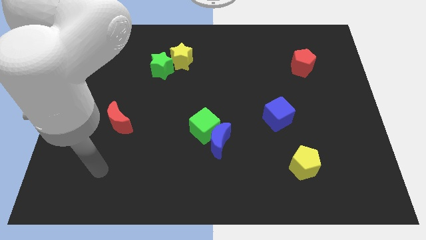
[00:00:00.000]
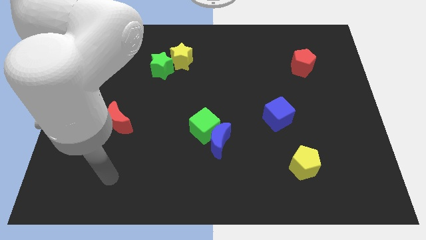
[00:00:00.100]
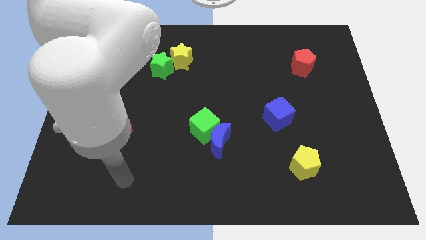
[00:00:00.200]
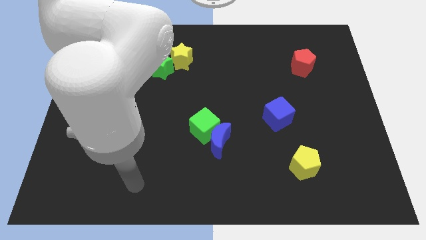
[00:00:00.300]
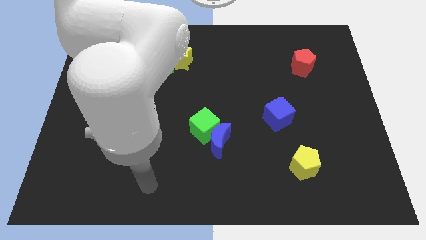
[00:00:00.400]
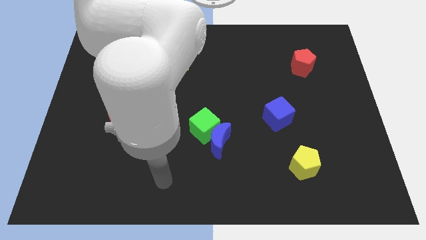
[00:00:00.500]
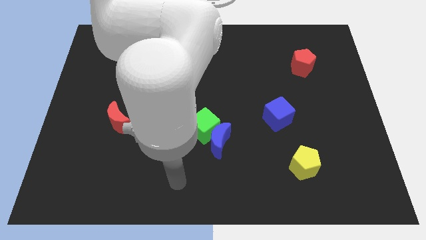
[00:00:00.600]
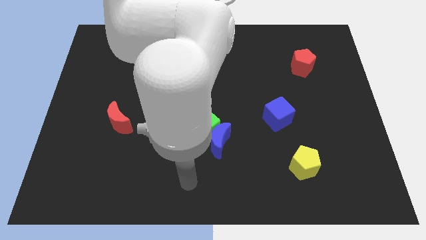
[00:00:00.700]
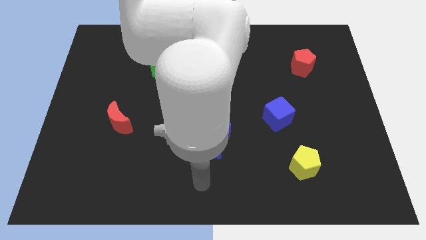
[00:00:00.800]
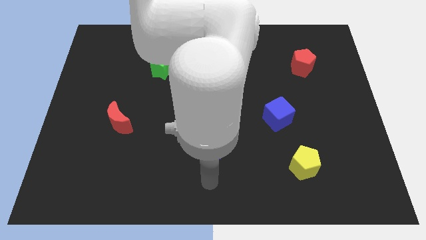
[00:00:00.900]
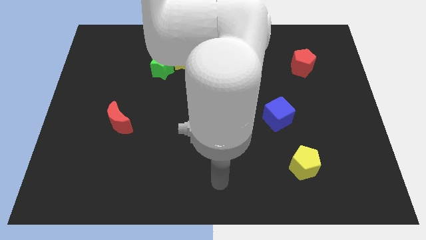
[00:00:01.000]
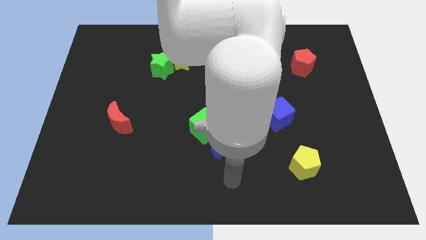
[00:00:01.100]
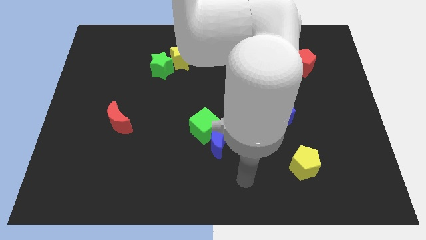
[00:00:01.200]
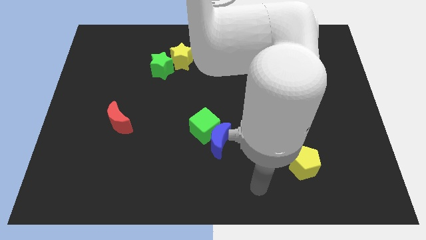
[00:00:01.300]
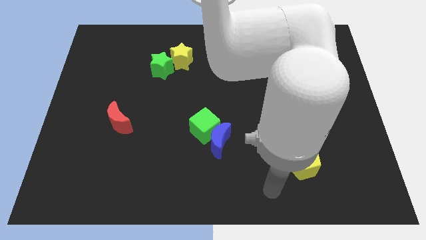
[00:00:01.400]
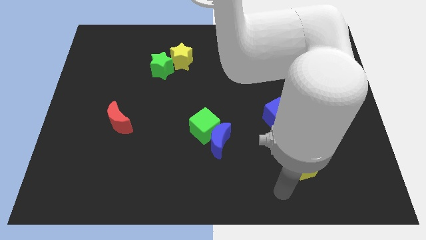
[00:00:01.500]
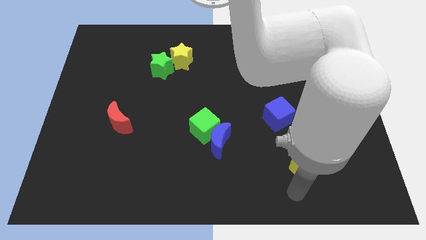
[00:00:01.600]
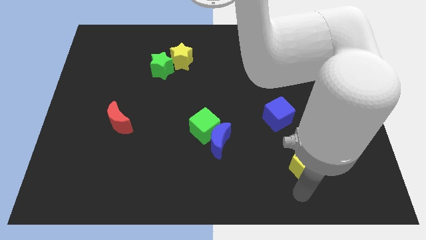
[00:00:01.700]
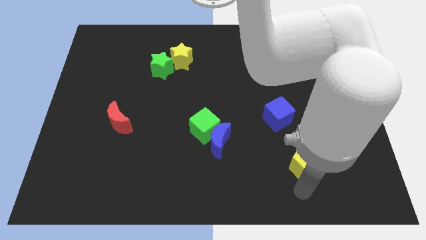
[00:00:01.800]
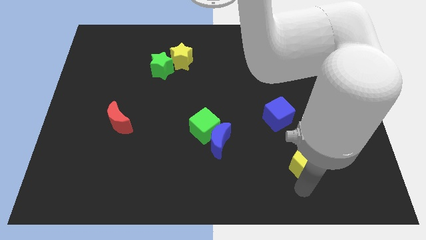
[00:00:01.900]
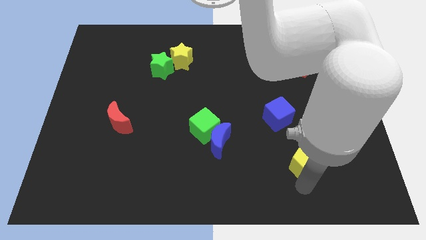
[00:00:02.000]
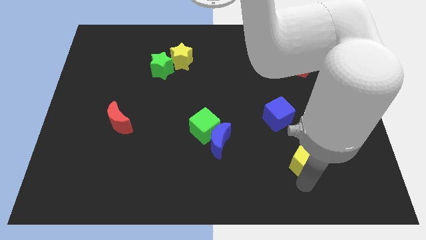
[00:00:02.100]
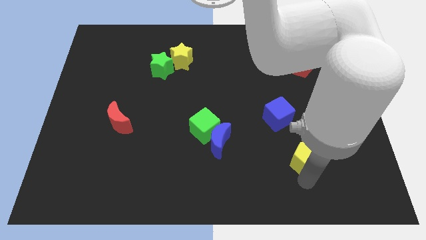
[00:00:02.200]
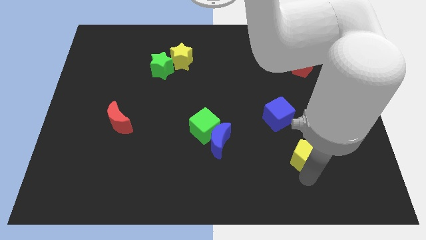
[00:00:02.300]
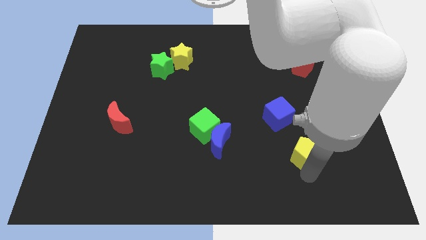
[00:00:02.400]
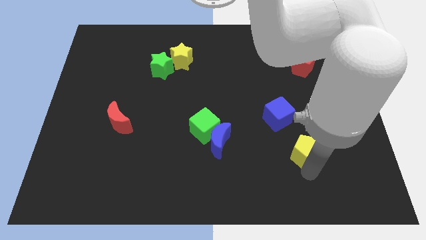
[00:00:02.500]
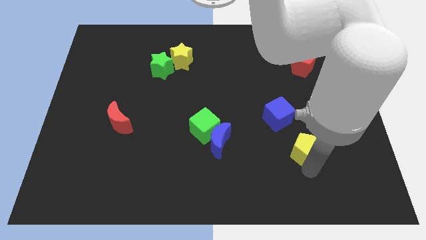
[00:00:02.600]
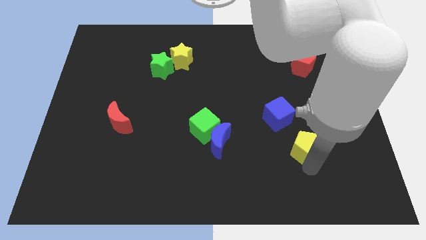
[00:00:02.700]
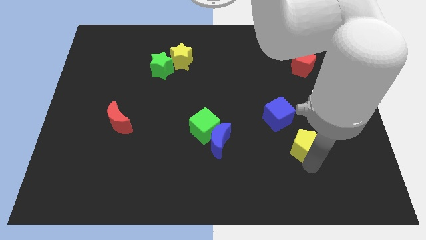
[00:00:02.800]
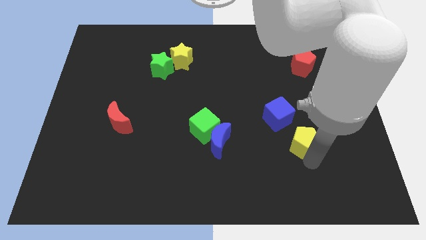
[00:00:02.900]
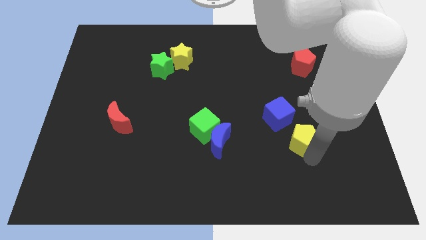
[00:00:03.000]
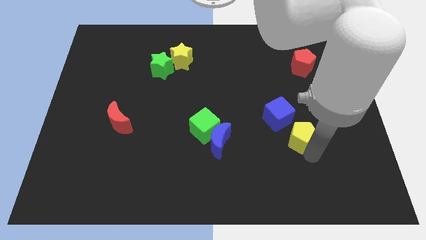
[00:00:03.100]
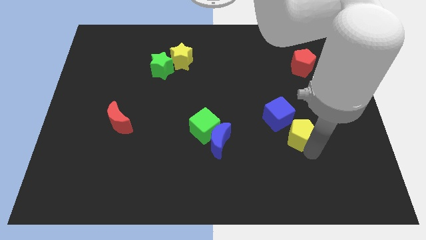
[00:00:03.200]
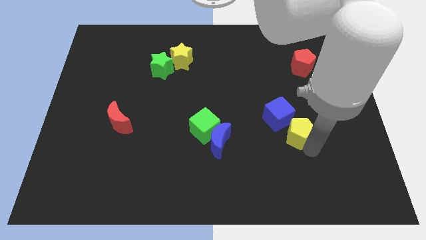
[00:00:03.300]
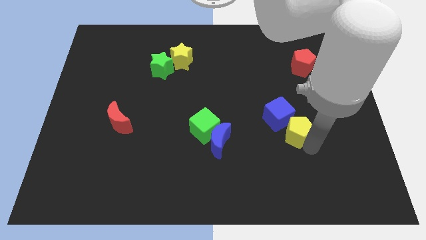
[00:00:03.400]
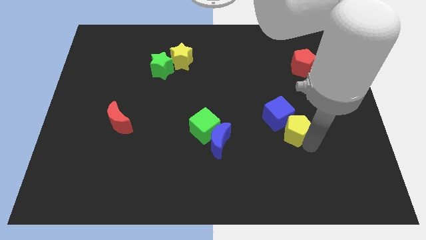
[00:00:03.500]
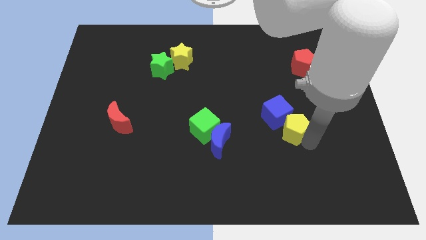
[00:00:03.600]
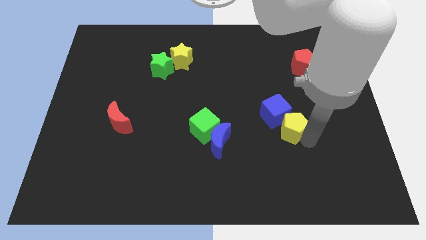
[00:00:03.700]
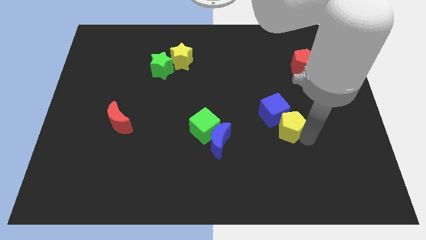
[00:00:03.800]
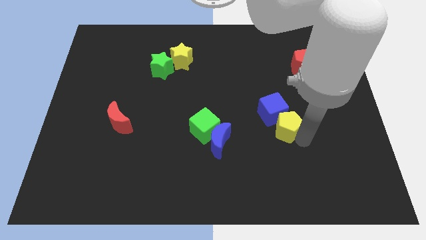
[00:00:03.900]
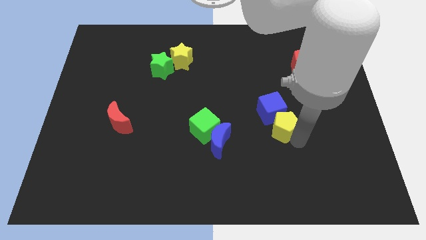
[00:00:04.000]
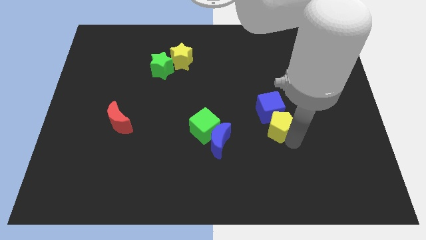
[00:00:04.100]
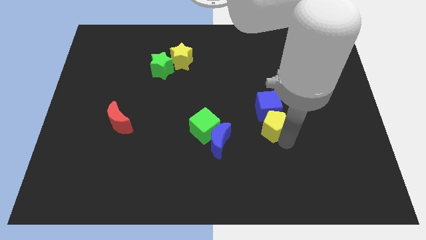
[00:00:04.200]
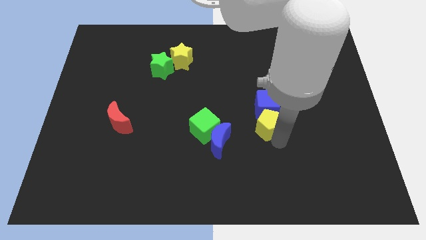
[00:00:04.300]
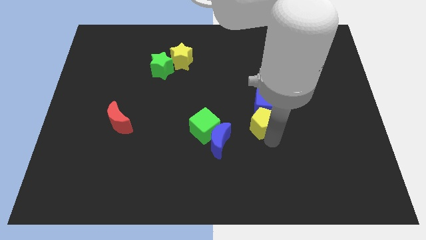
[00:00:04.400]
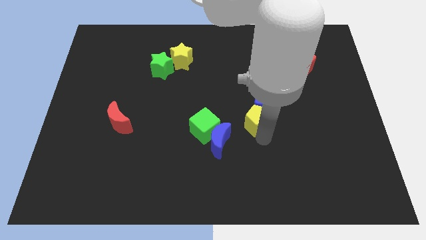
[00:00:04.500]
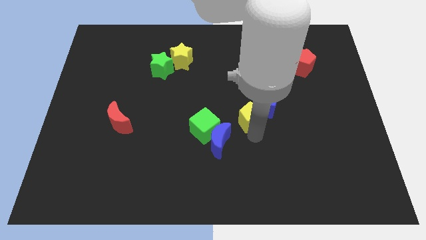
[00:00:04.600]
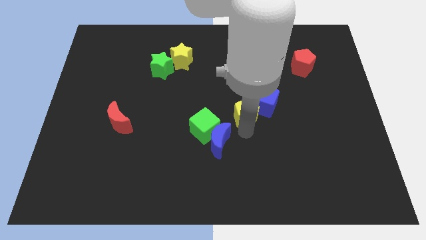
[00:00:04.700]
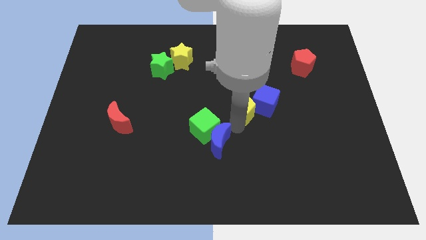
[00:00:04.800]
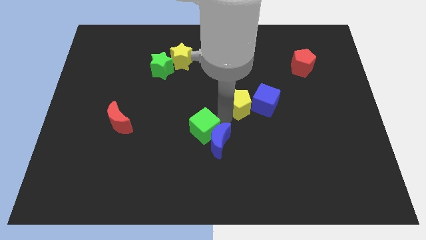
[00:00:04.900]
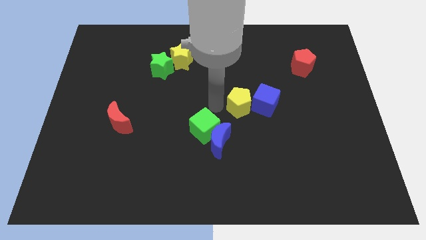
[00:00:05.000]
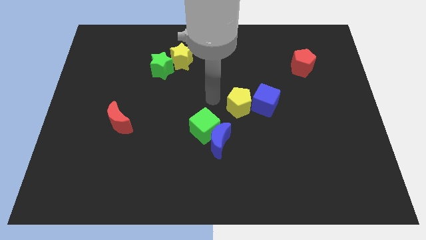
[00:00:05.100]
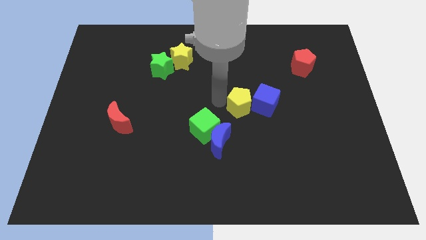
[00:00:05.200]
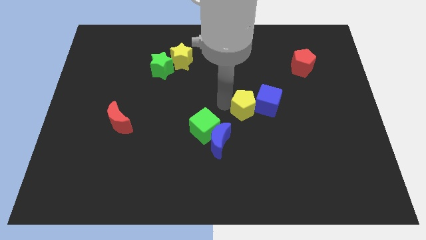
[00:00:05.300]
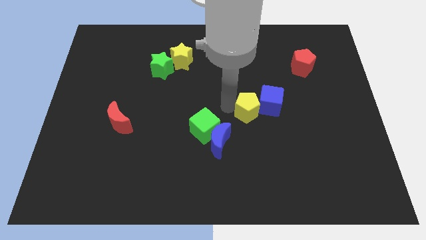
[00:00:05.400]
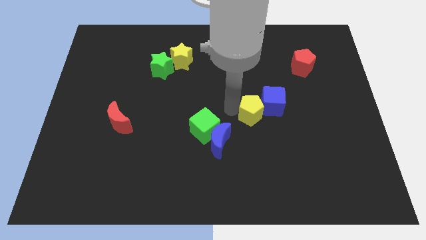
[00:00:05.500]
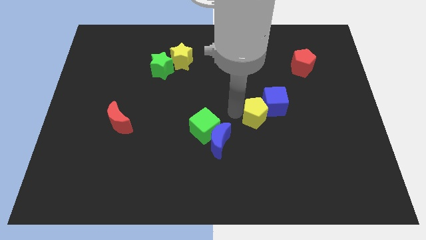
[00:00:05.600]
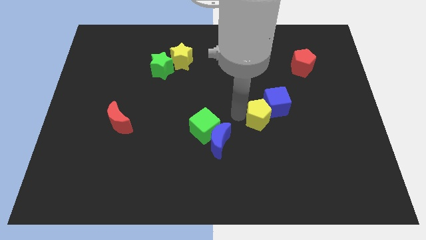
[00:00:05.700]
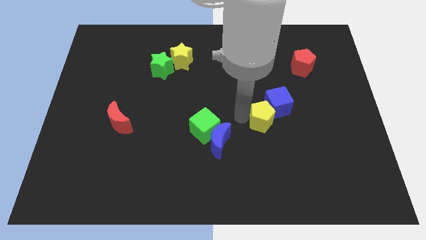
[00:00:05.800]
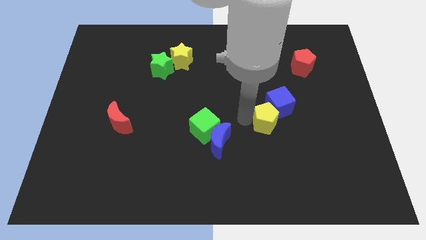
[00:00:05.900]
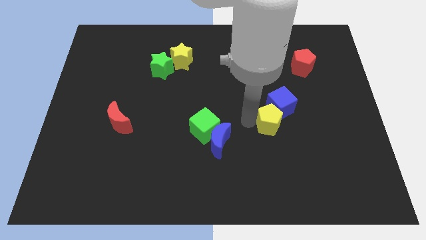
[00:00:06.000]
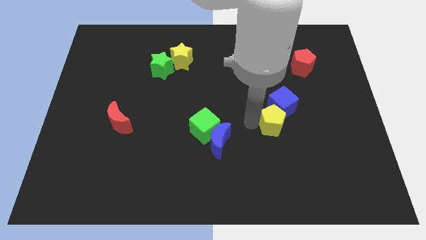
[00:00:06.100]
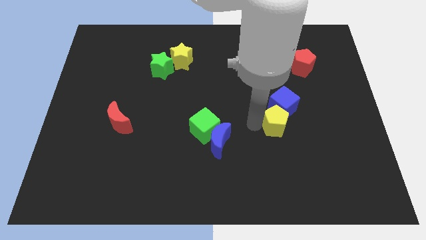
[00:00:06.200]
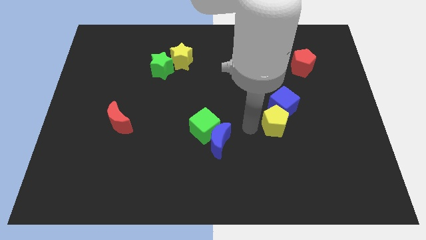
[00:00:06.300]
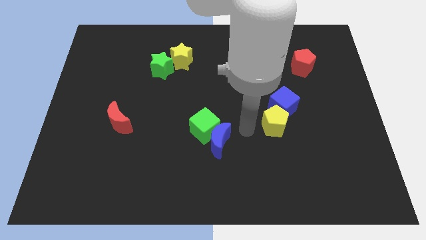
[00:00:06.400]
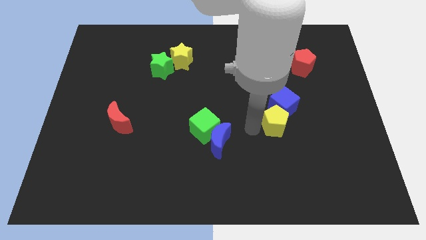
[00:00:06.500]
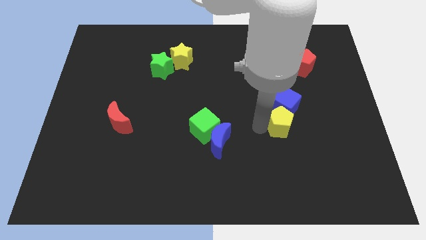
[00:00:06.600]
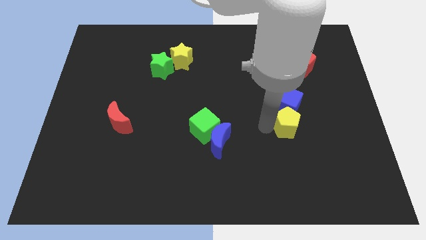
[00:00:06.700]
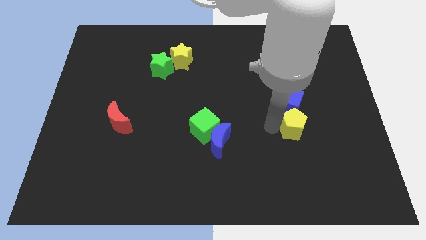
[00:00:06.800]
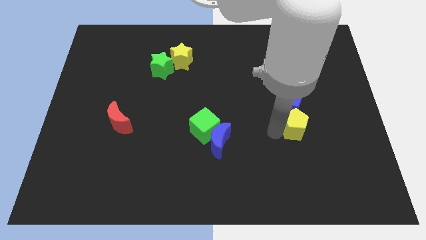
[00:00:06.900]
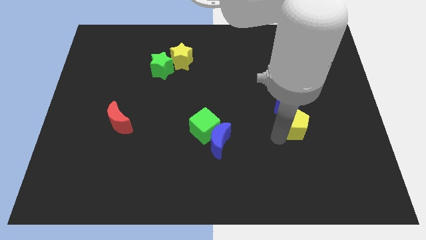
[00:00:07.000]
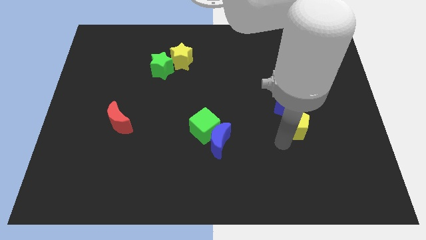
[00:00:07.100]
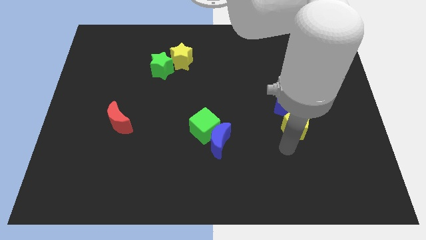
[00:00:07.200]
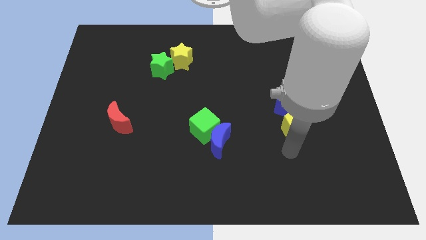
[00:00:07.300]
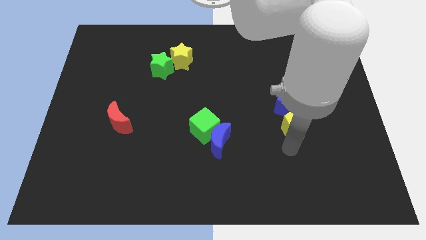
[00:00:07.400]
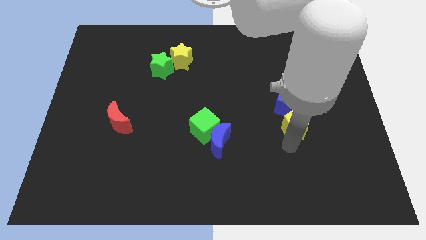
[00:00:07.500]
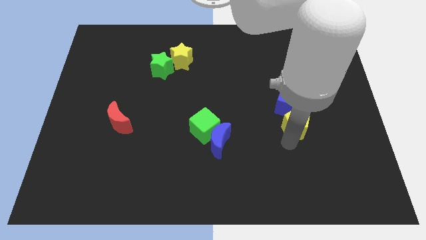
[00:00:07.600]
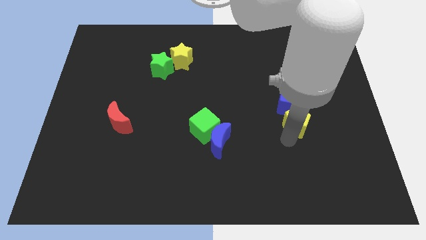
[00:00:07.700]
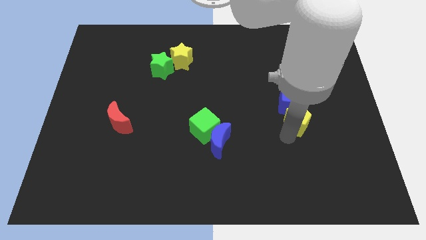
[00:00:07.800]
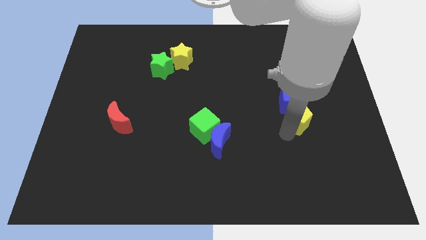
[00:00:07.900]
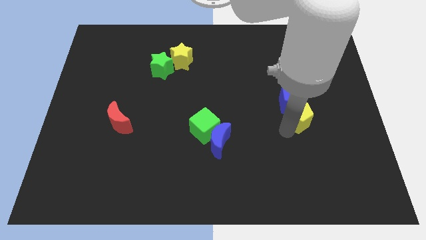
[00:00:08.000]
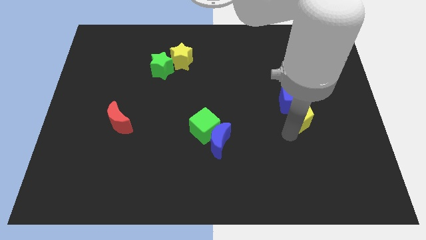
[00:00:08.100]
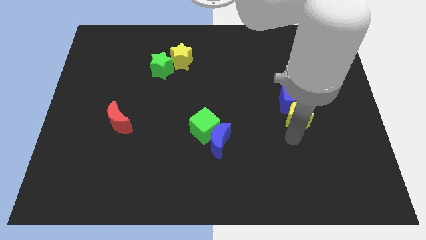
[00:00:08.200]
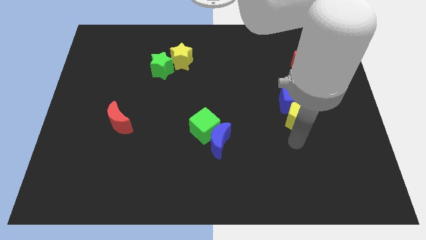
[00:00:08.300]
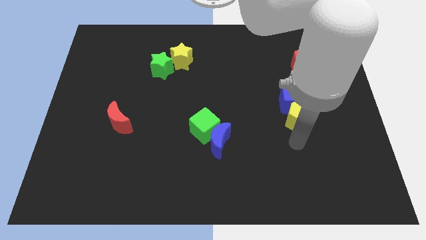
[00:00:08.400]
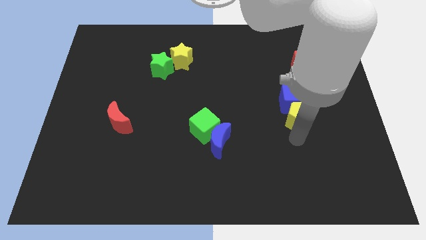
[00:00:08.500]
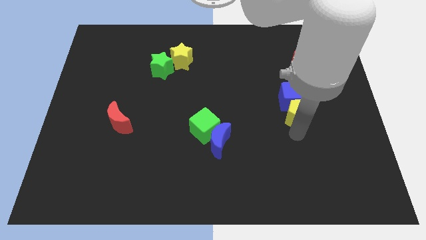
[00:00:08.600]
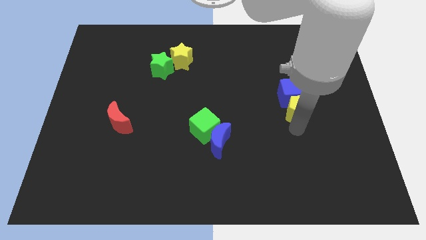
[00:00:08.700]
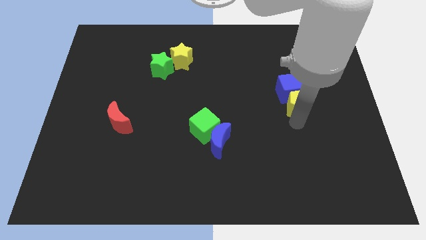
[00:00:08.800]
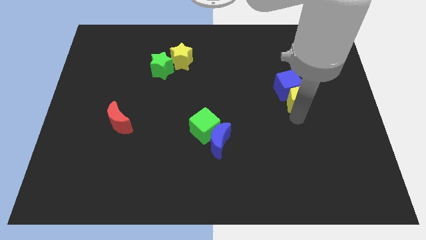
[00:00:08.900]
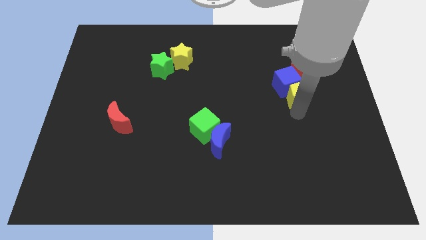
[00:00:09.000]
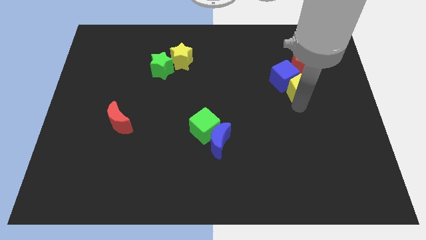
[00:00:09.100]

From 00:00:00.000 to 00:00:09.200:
slide the yellow pentagon upwards
